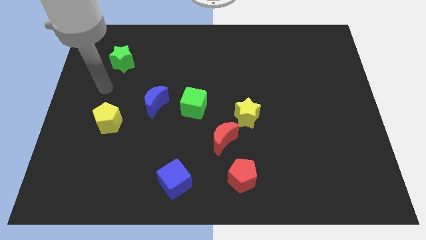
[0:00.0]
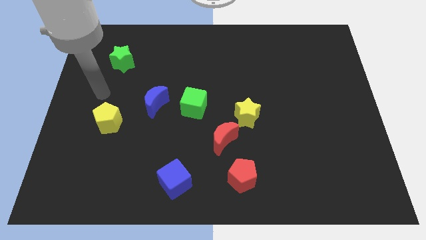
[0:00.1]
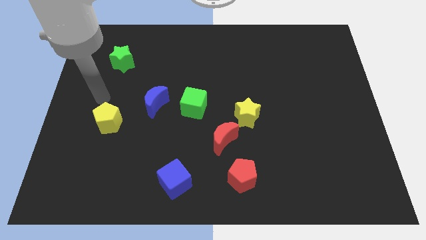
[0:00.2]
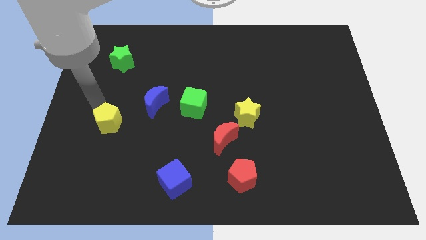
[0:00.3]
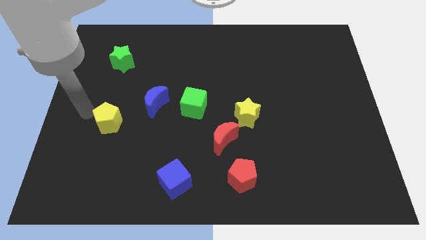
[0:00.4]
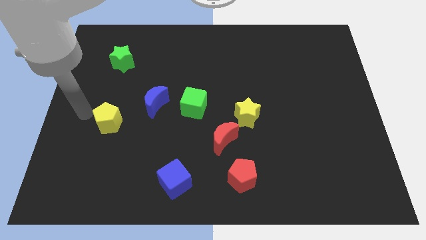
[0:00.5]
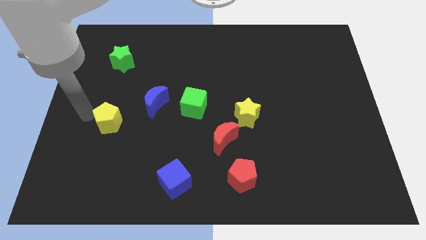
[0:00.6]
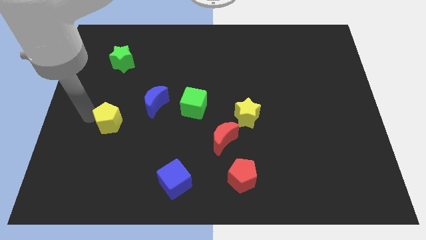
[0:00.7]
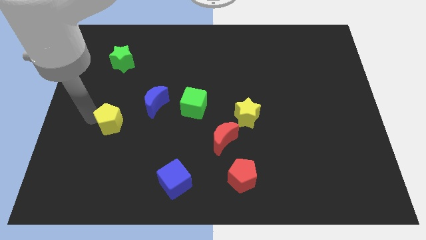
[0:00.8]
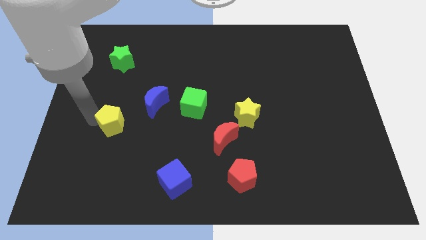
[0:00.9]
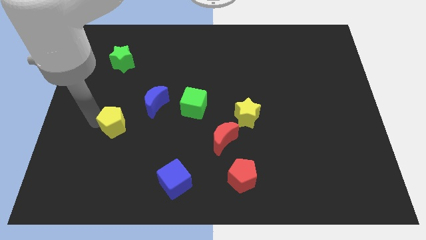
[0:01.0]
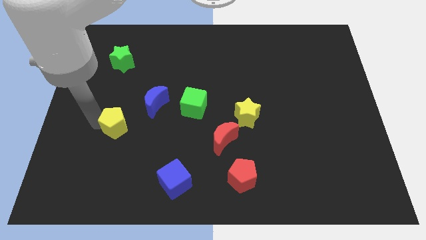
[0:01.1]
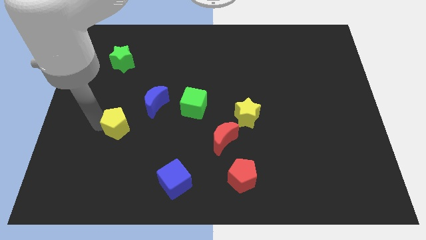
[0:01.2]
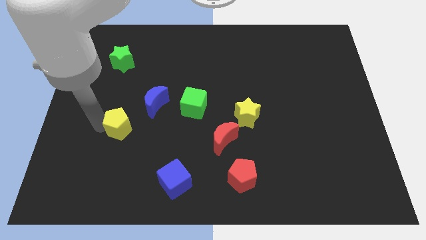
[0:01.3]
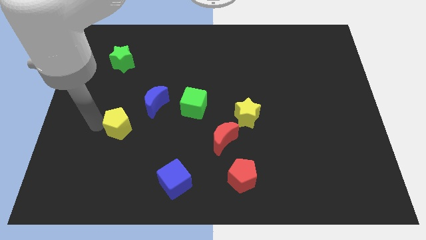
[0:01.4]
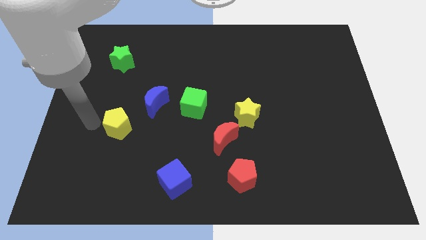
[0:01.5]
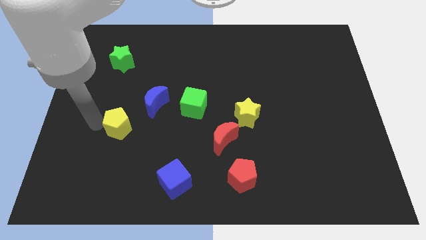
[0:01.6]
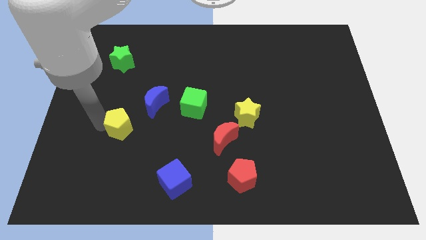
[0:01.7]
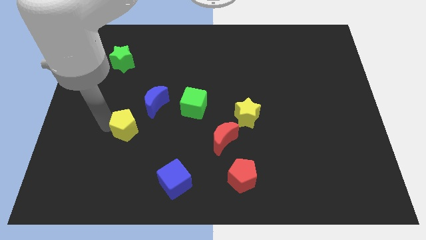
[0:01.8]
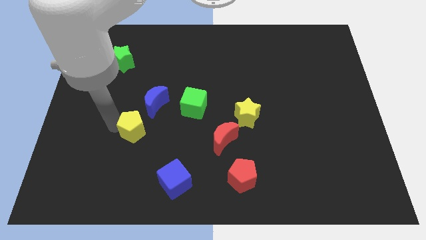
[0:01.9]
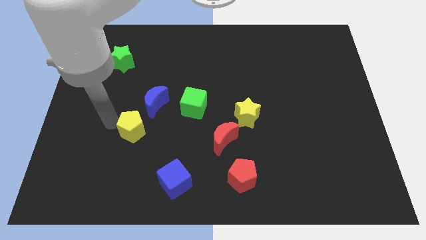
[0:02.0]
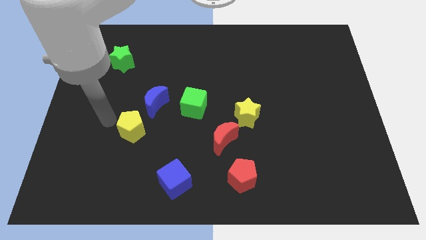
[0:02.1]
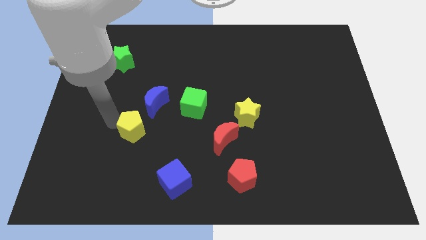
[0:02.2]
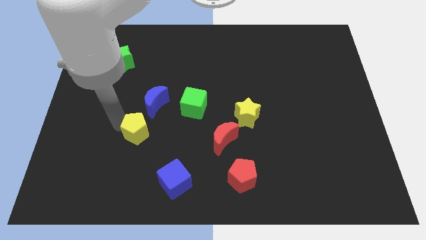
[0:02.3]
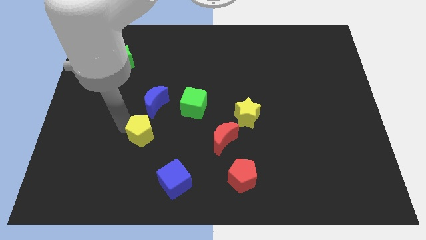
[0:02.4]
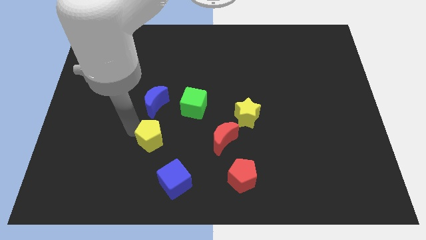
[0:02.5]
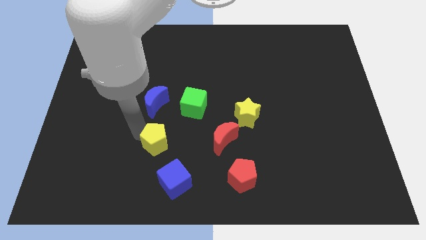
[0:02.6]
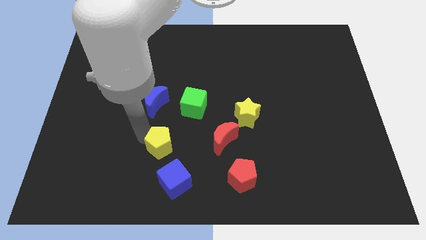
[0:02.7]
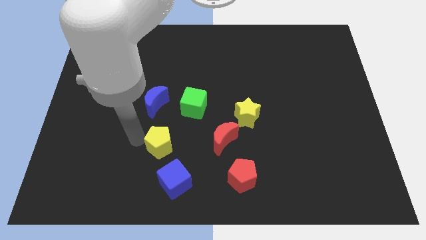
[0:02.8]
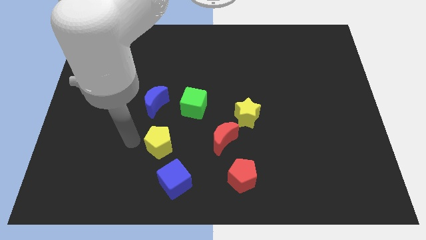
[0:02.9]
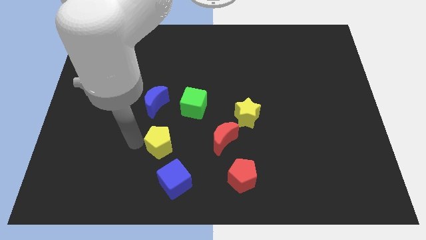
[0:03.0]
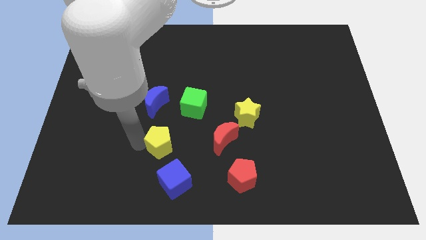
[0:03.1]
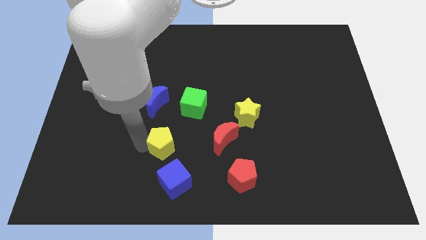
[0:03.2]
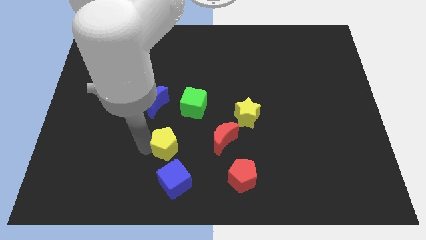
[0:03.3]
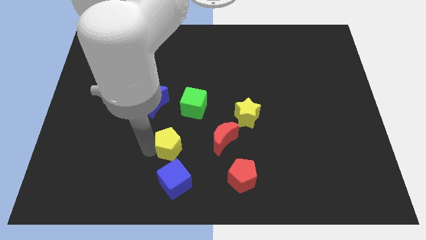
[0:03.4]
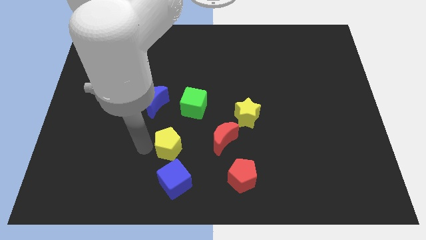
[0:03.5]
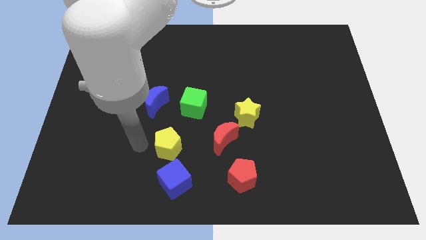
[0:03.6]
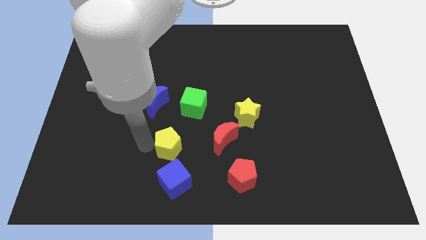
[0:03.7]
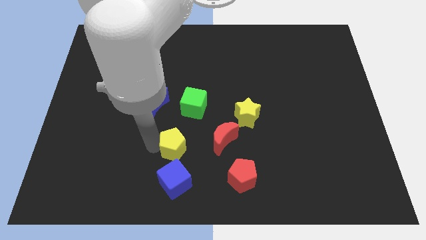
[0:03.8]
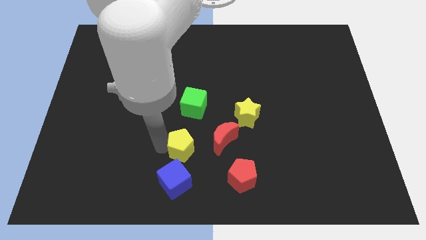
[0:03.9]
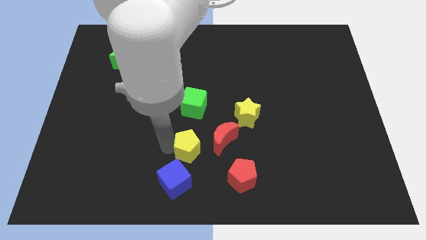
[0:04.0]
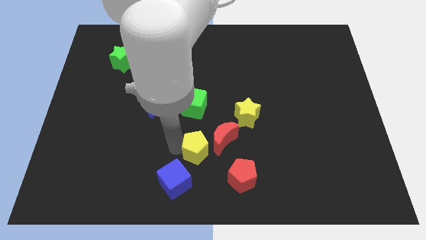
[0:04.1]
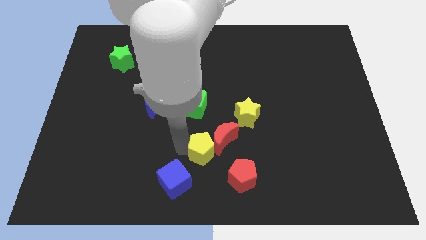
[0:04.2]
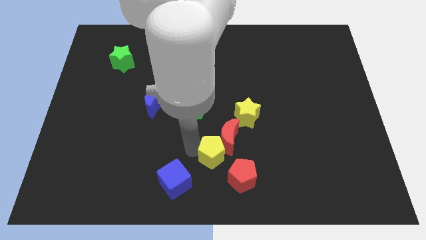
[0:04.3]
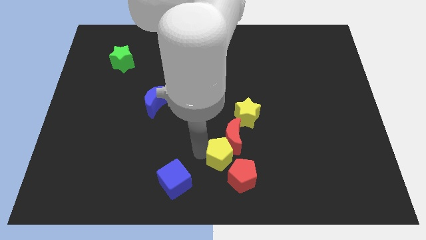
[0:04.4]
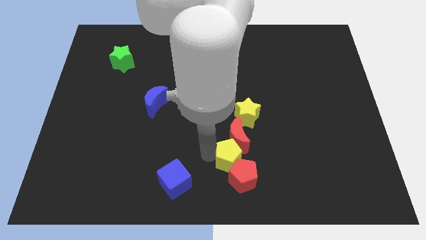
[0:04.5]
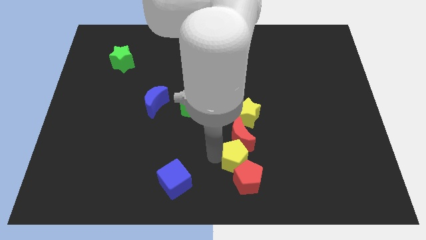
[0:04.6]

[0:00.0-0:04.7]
push the yellow pentagon diagonally down and to the right of the red moon

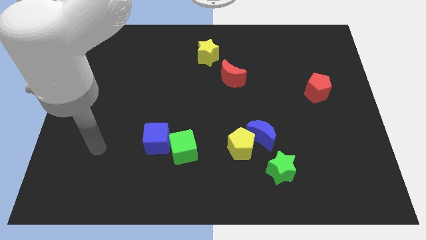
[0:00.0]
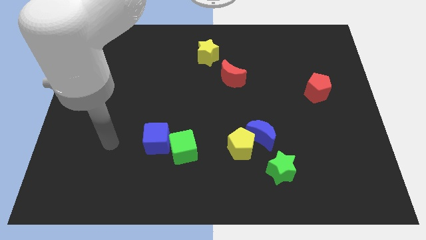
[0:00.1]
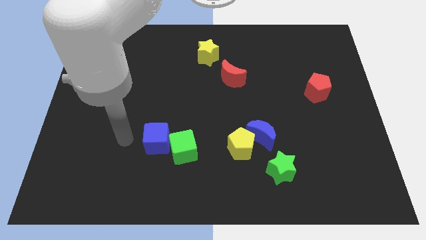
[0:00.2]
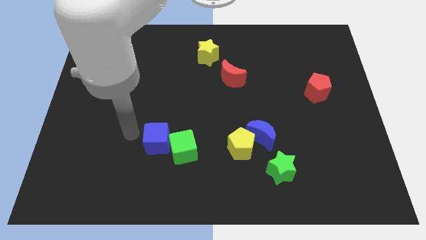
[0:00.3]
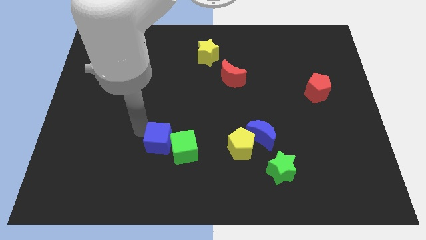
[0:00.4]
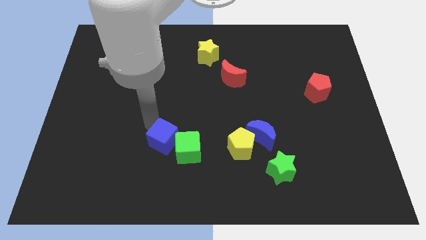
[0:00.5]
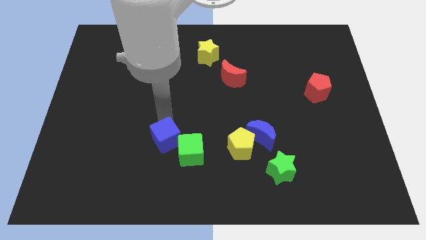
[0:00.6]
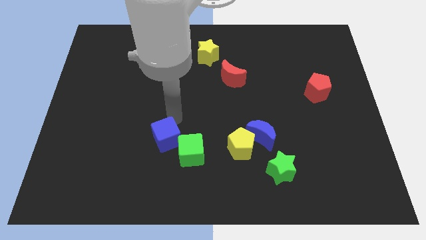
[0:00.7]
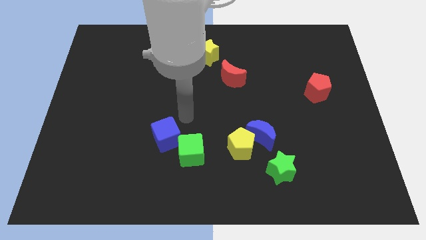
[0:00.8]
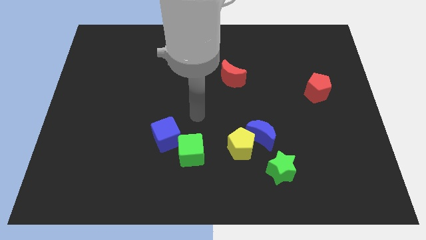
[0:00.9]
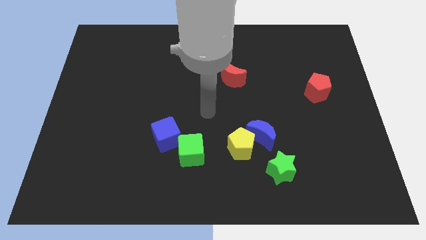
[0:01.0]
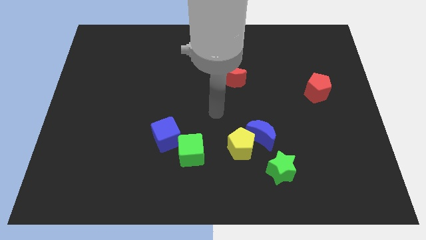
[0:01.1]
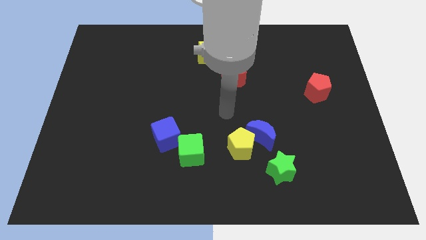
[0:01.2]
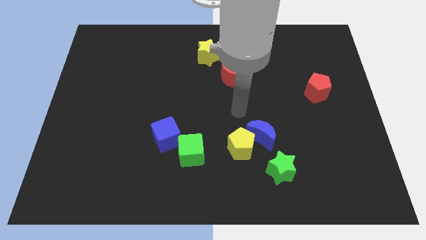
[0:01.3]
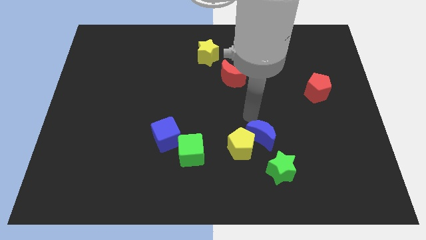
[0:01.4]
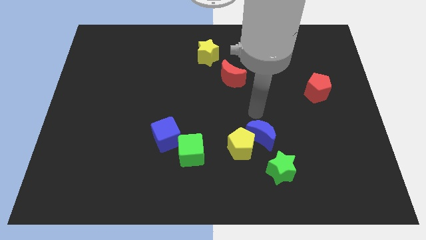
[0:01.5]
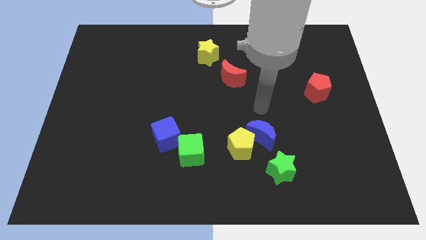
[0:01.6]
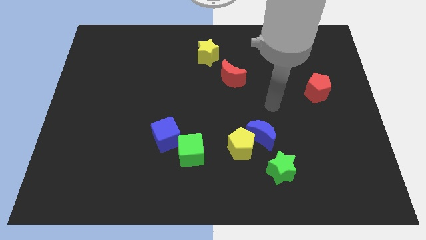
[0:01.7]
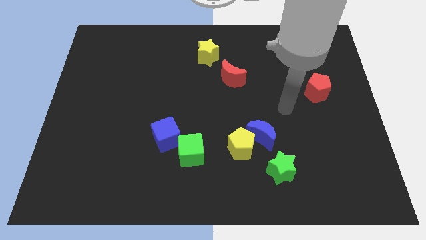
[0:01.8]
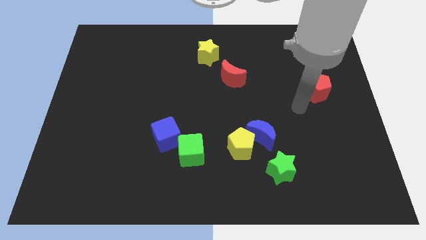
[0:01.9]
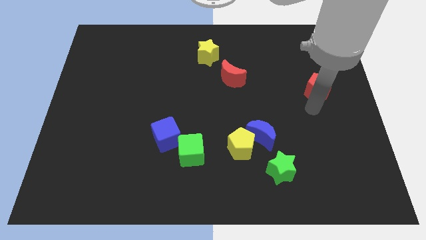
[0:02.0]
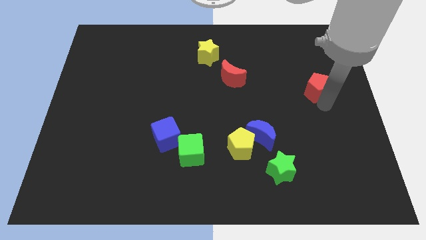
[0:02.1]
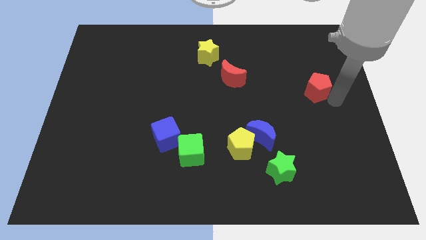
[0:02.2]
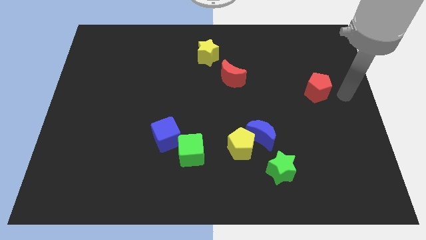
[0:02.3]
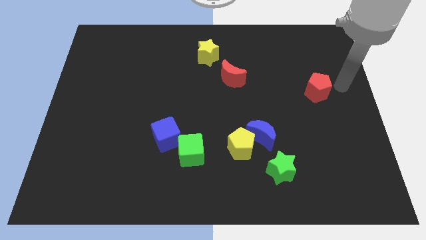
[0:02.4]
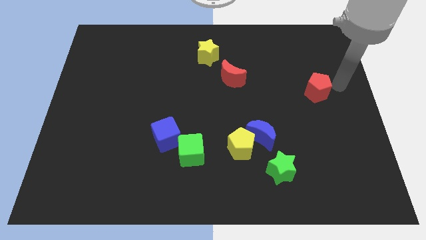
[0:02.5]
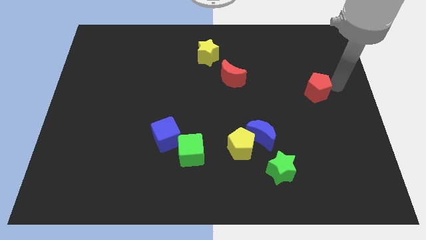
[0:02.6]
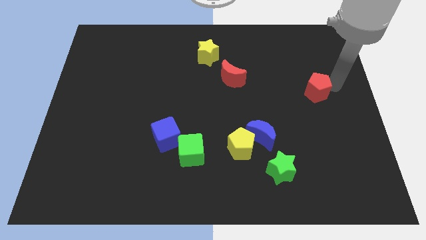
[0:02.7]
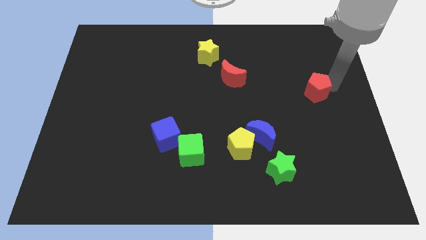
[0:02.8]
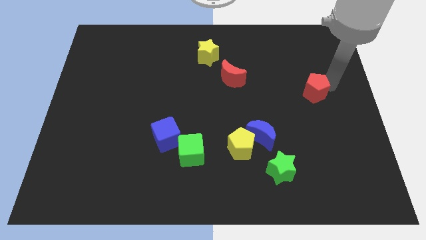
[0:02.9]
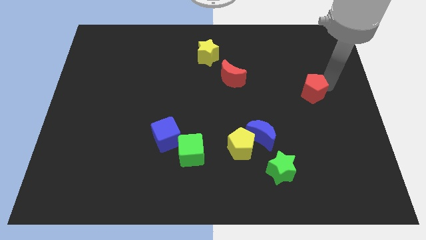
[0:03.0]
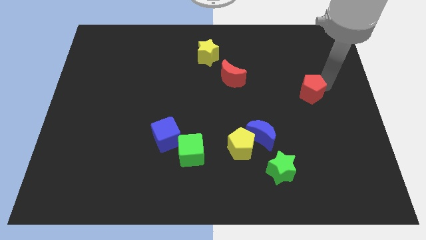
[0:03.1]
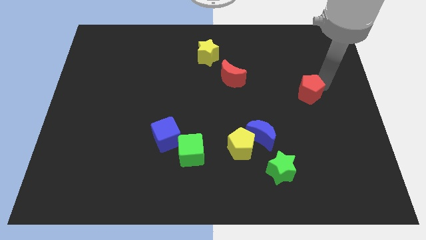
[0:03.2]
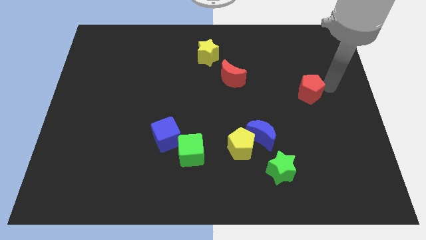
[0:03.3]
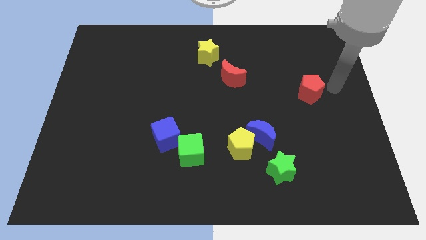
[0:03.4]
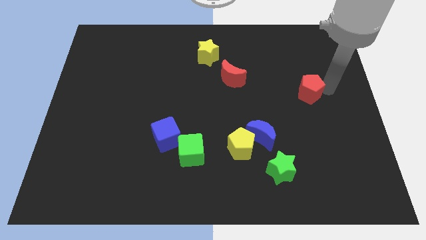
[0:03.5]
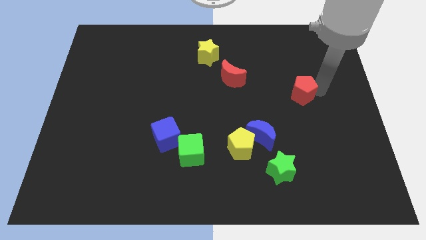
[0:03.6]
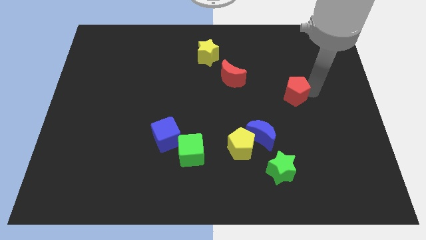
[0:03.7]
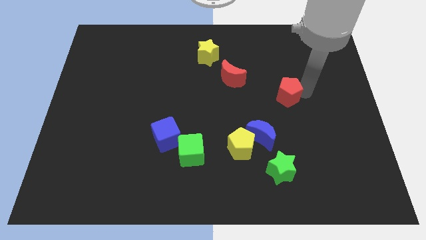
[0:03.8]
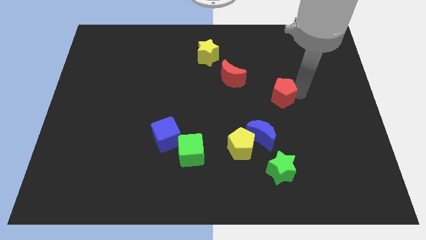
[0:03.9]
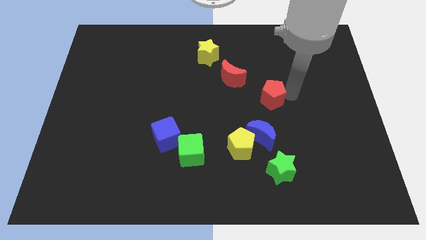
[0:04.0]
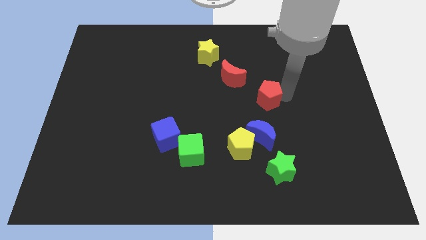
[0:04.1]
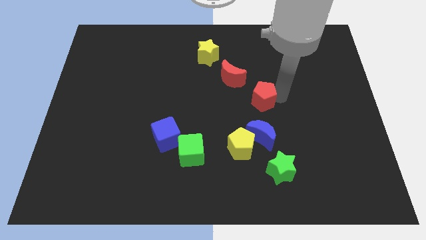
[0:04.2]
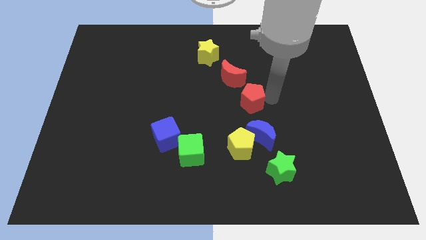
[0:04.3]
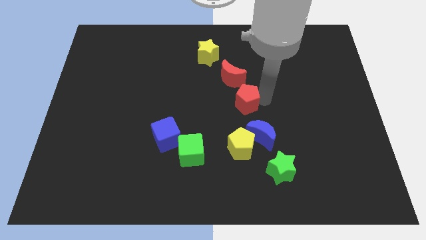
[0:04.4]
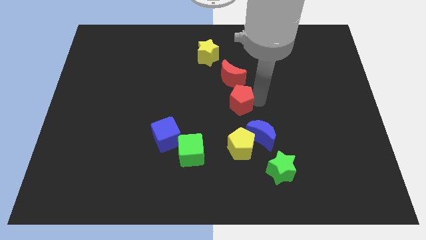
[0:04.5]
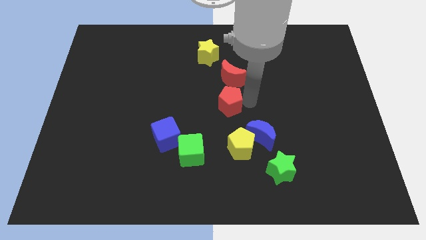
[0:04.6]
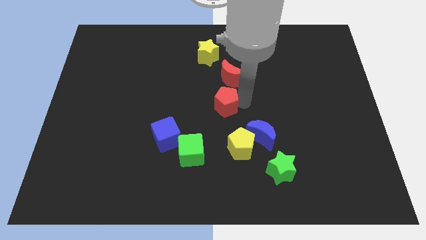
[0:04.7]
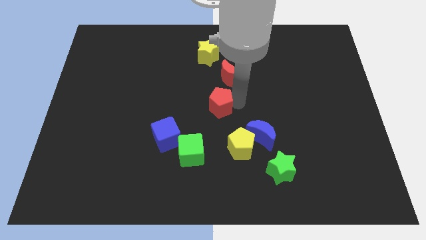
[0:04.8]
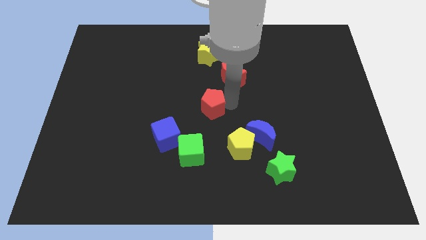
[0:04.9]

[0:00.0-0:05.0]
push the red pentagon to the top side of the green cube
